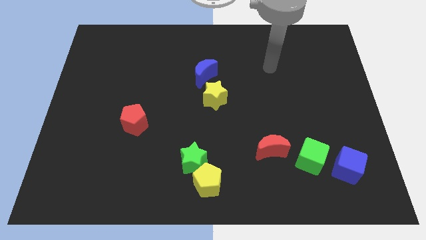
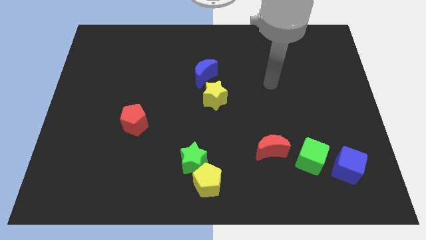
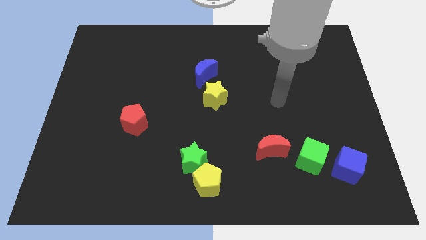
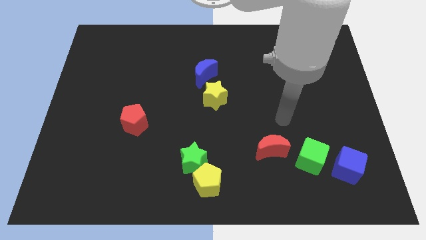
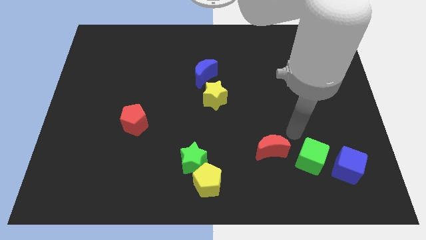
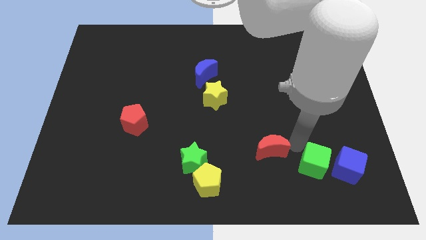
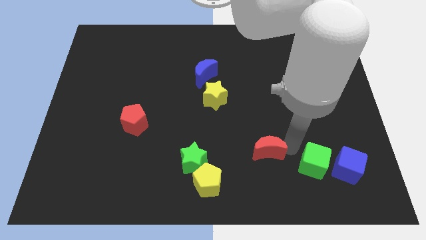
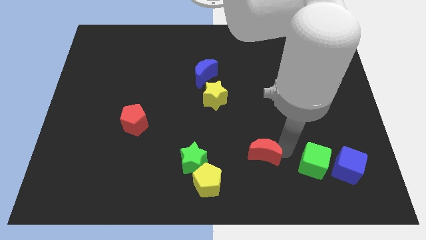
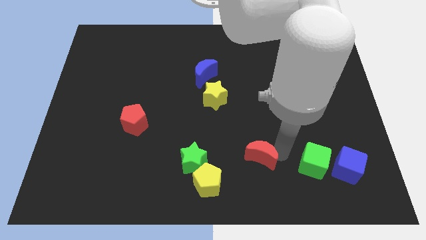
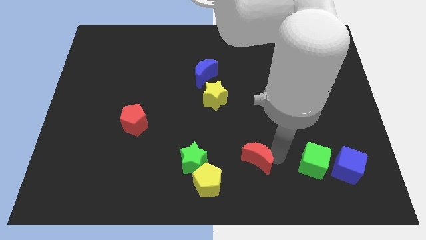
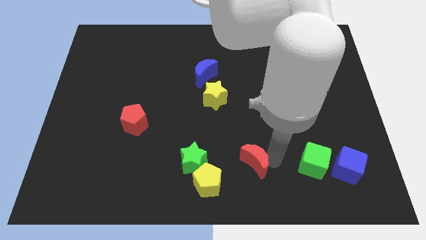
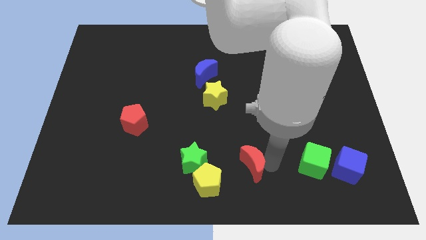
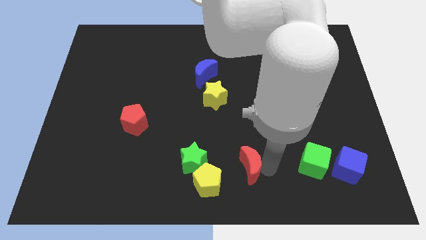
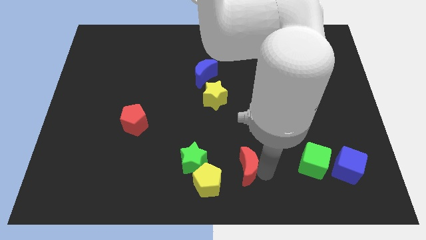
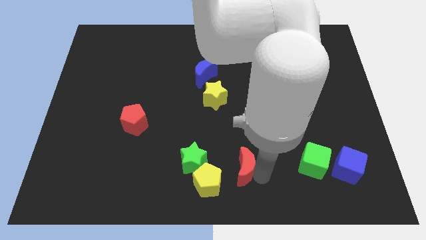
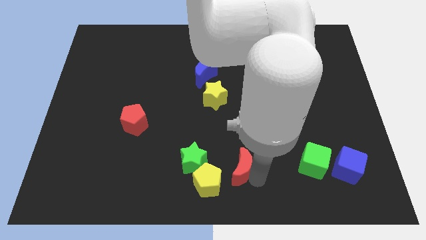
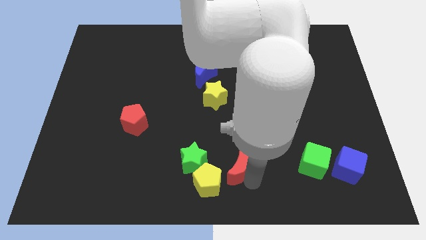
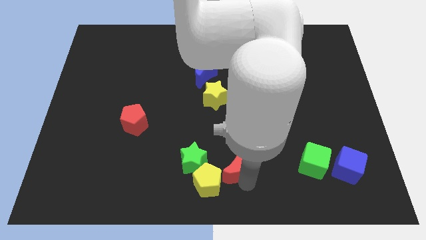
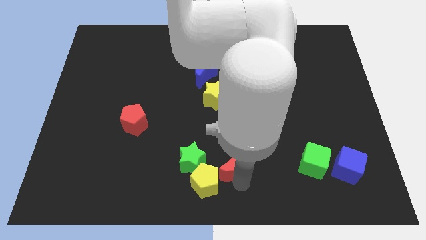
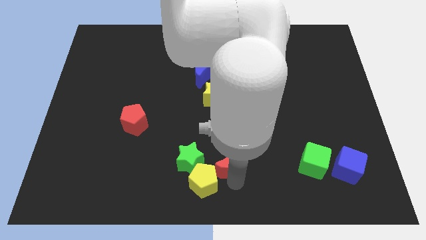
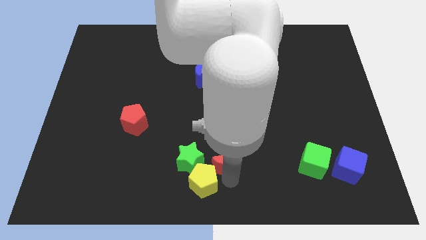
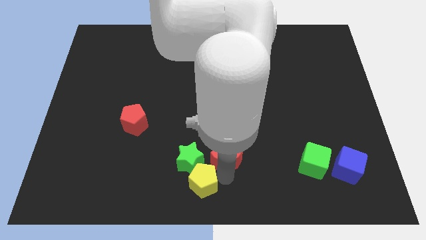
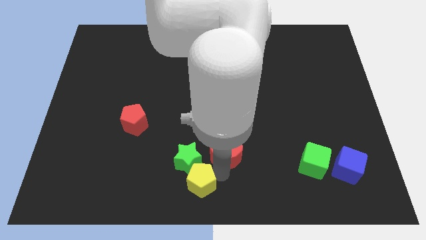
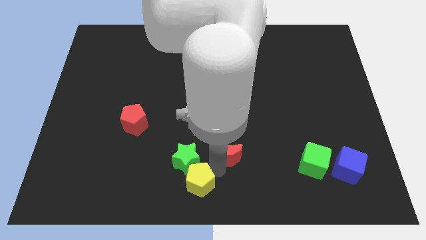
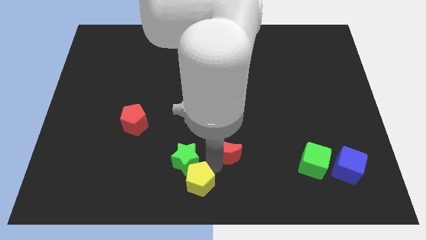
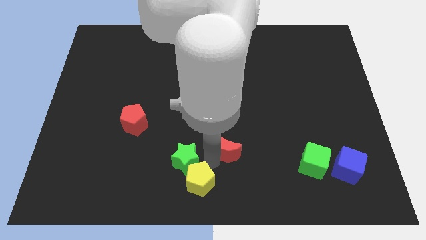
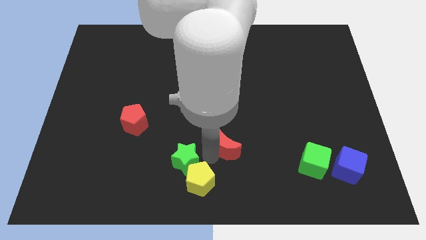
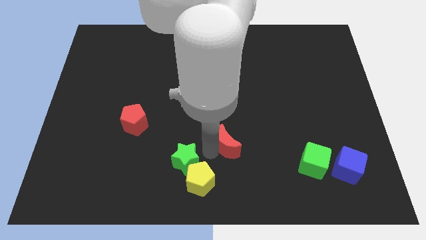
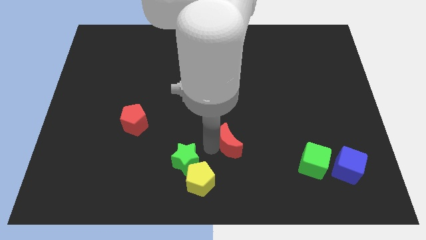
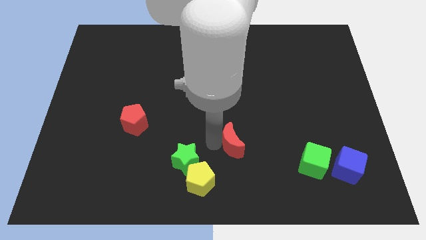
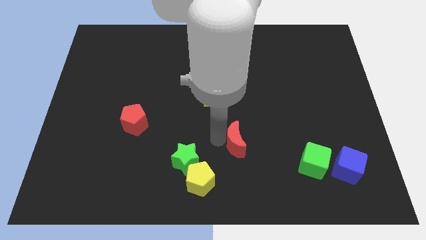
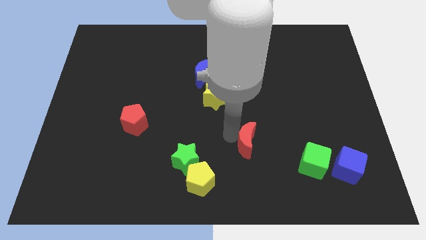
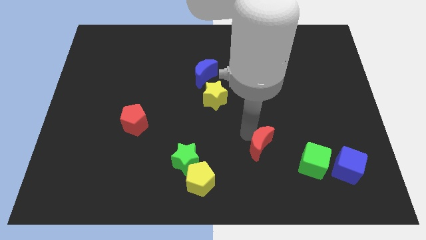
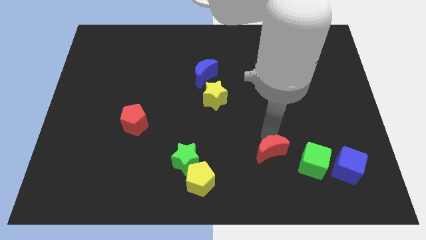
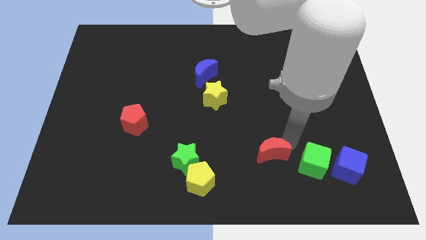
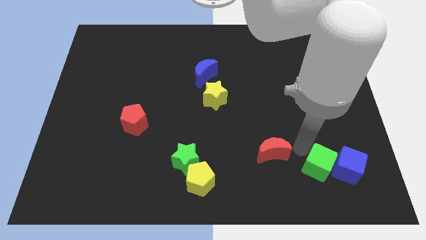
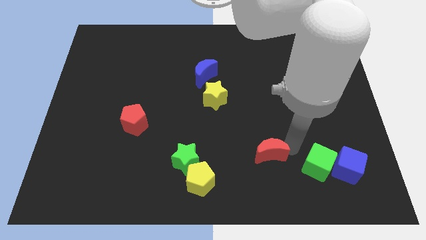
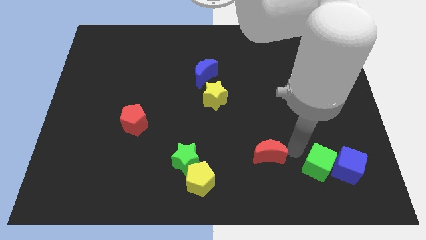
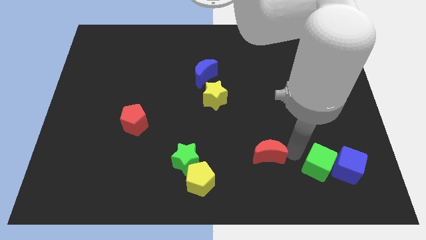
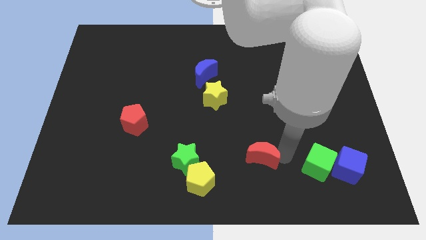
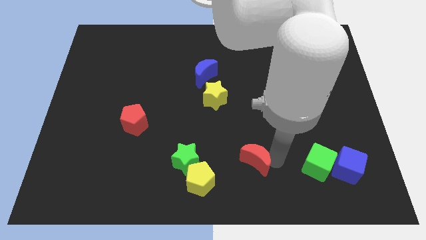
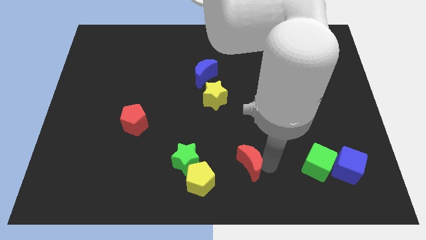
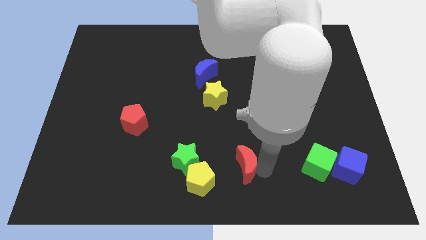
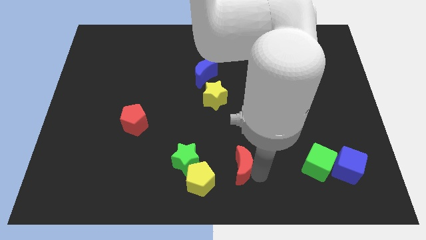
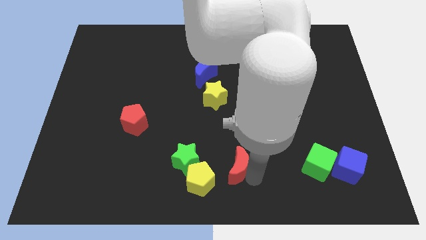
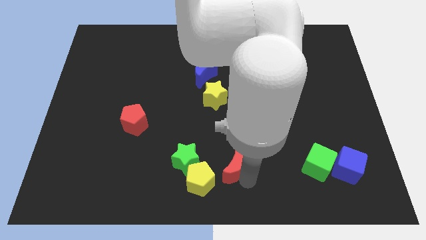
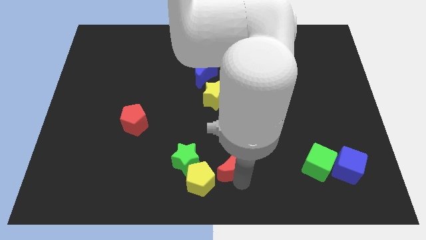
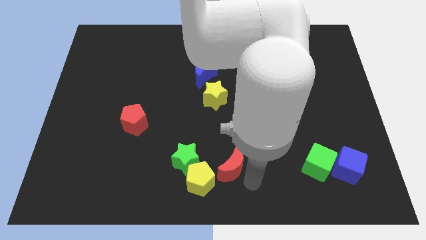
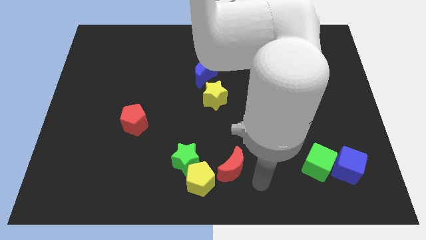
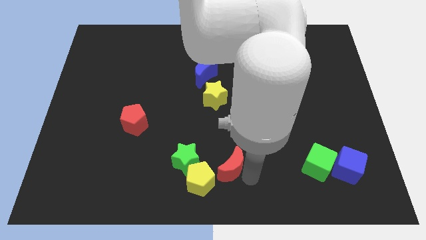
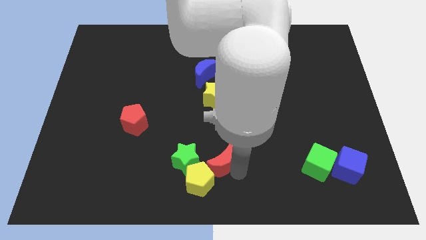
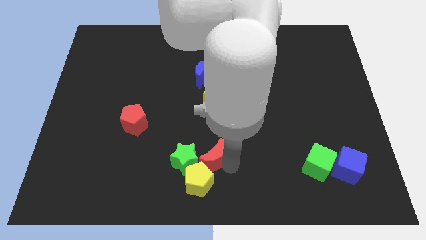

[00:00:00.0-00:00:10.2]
put the red moon next to the green star

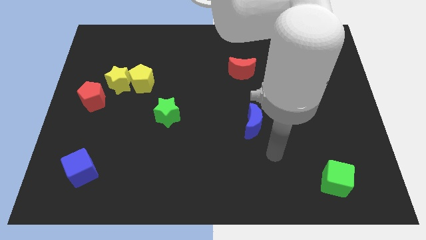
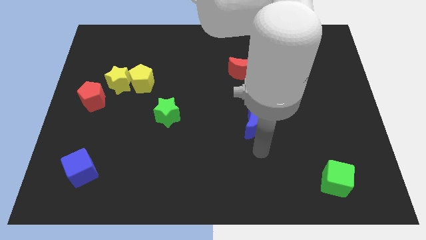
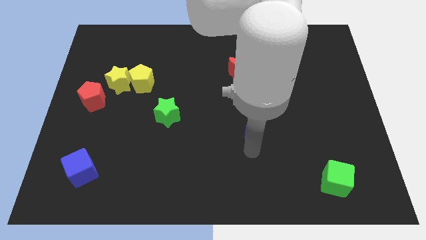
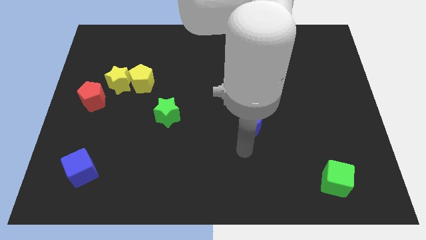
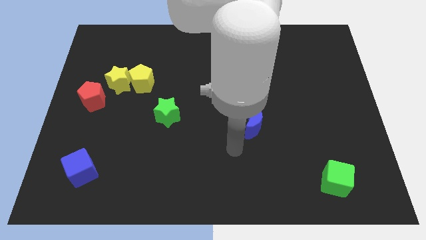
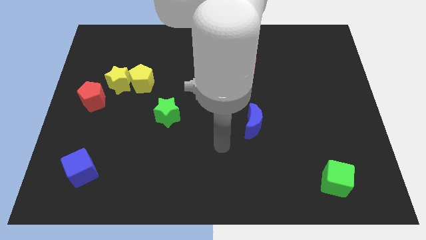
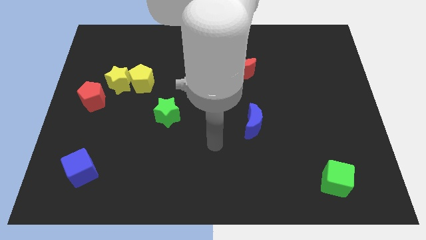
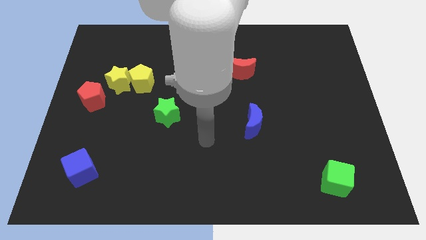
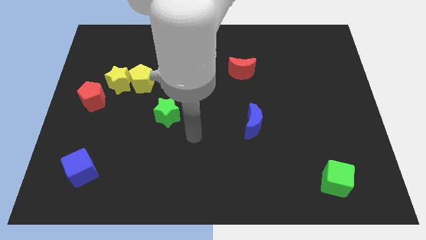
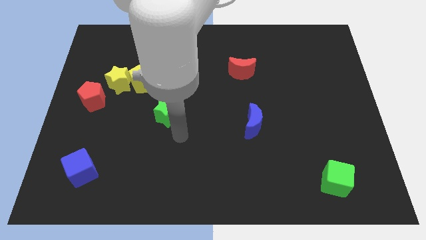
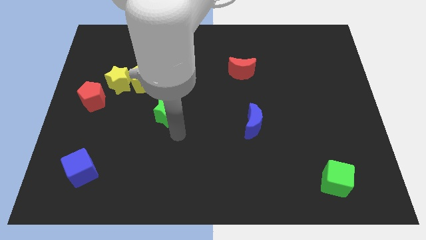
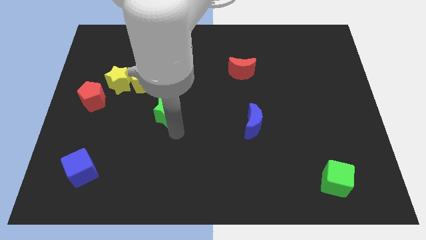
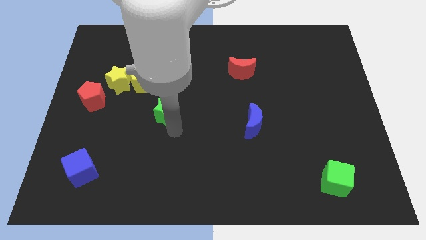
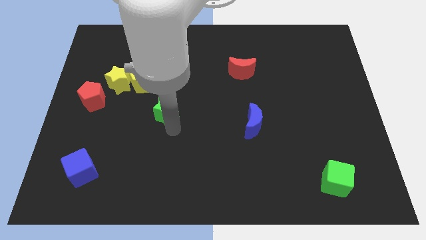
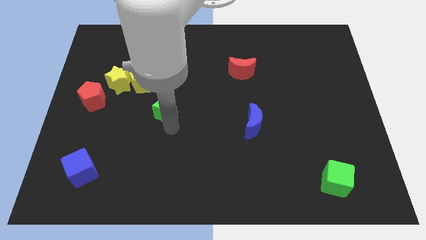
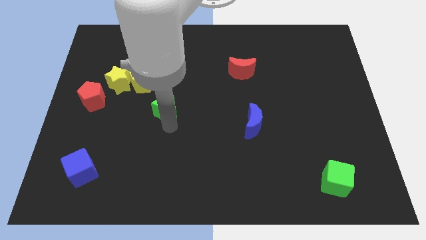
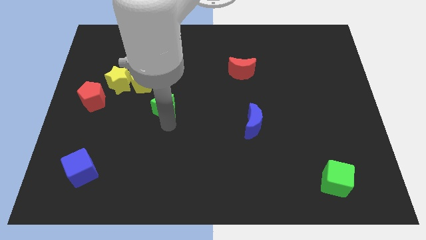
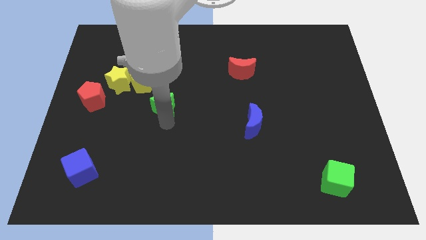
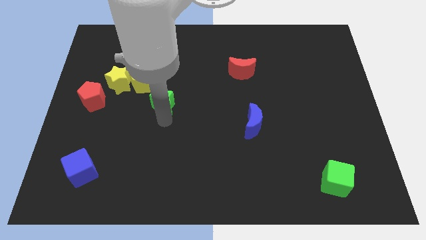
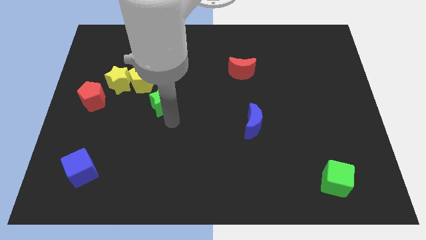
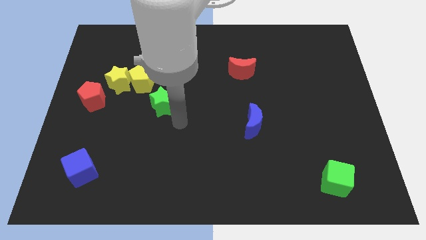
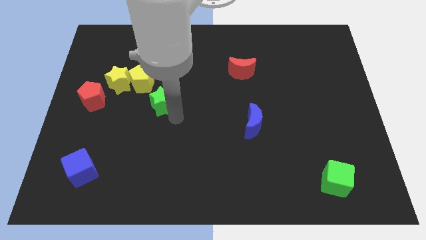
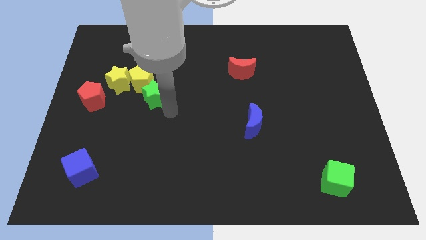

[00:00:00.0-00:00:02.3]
slide the green star to the yellow pentagon
